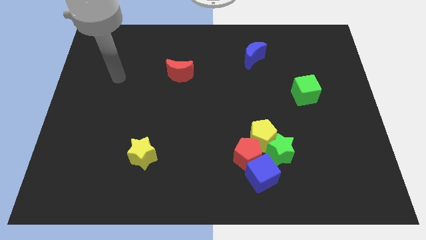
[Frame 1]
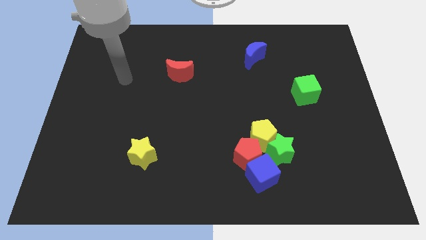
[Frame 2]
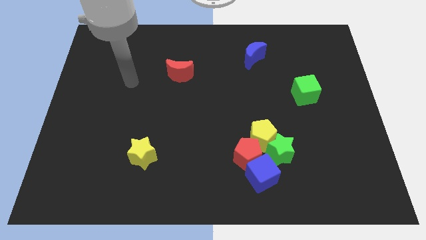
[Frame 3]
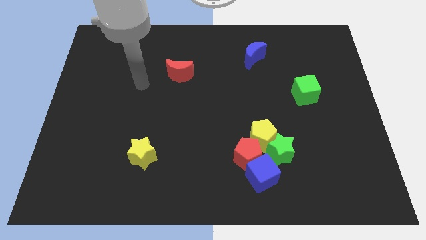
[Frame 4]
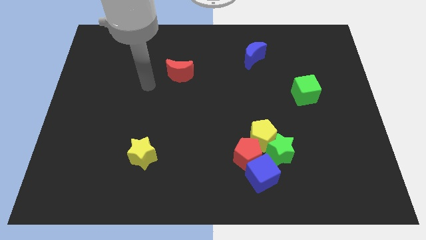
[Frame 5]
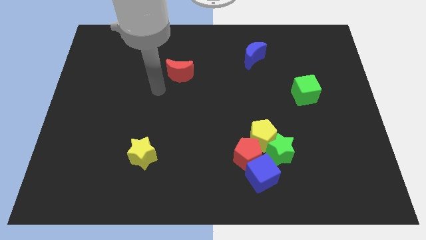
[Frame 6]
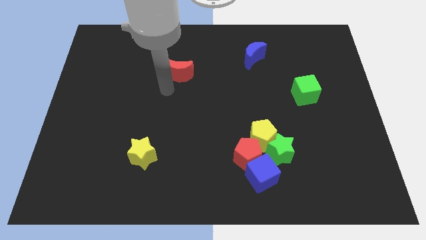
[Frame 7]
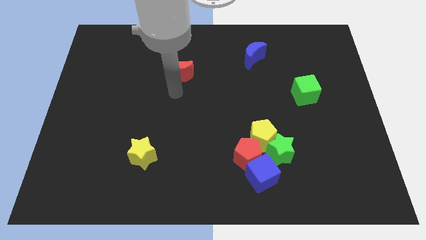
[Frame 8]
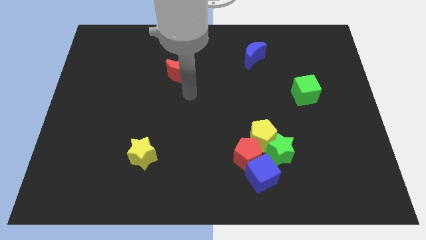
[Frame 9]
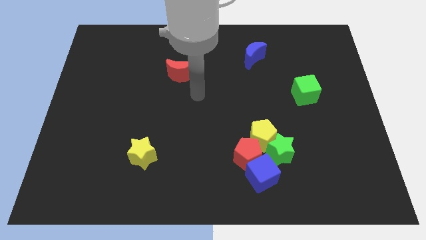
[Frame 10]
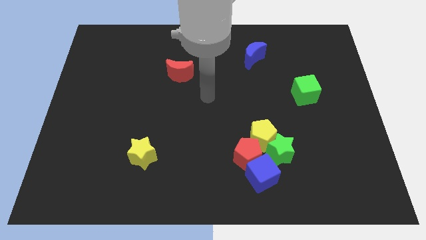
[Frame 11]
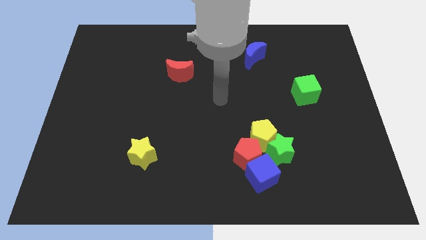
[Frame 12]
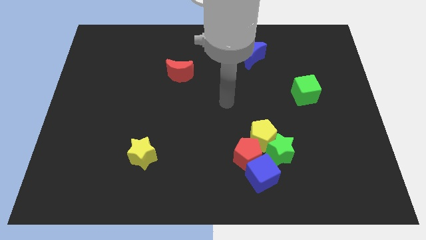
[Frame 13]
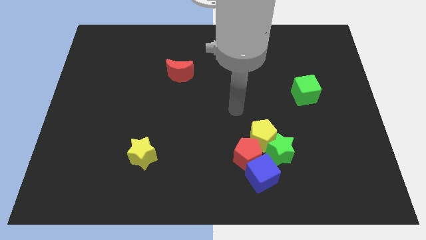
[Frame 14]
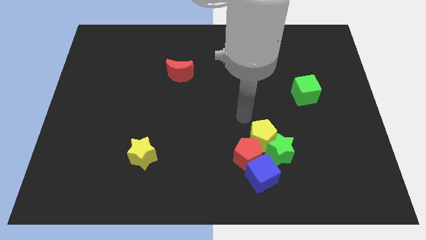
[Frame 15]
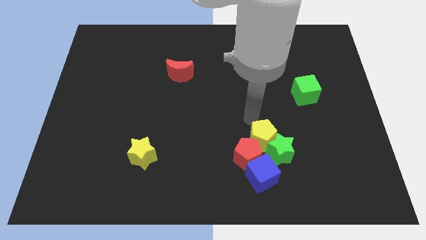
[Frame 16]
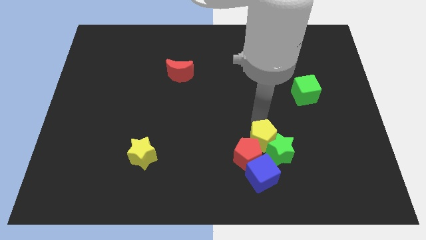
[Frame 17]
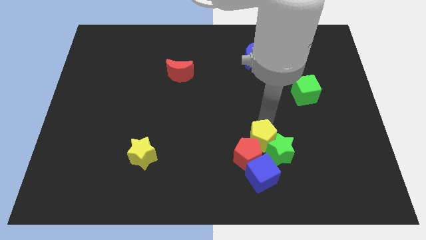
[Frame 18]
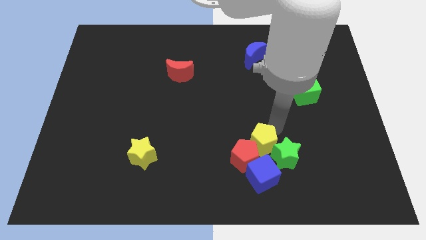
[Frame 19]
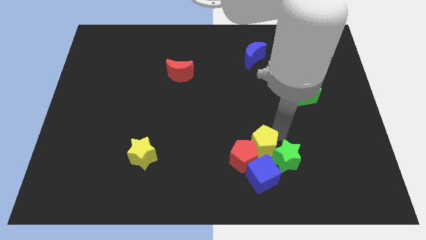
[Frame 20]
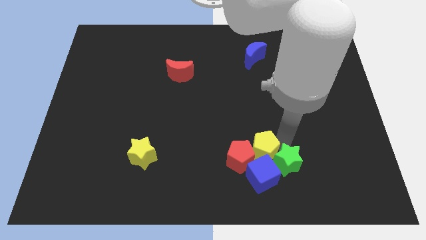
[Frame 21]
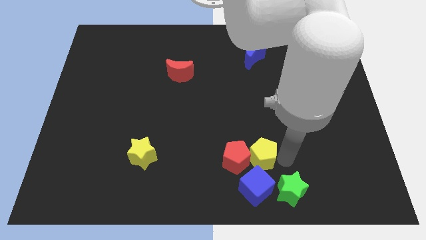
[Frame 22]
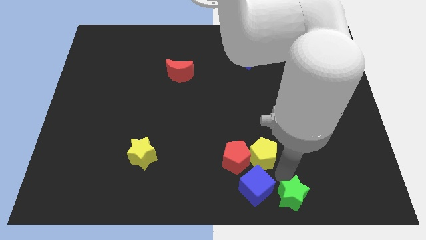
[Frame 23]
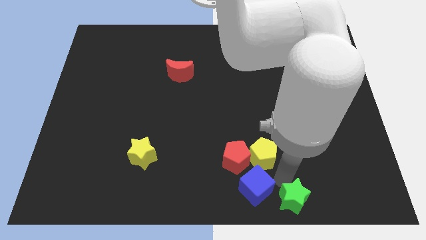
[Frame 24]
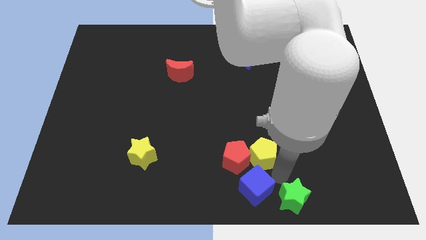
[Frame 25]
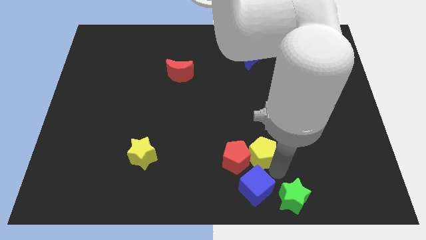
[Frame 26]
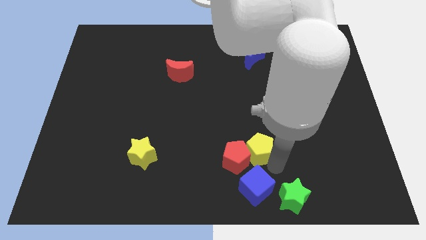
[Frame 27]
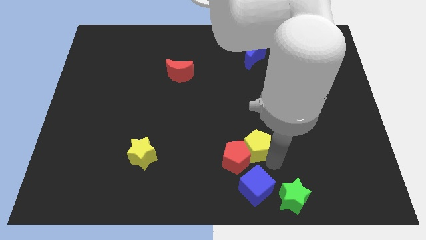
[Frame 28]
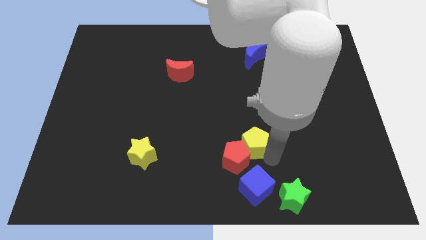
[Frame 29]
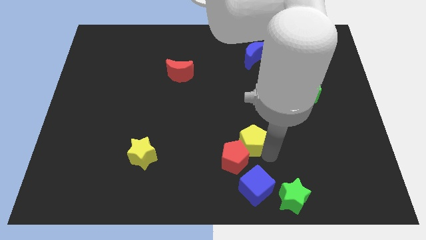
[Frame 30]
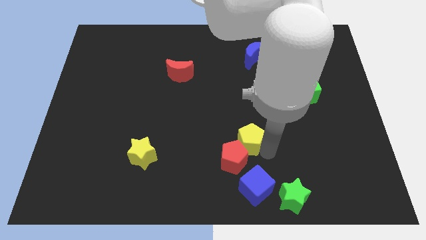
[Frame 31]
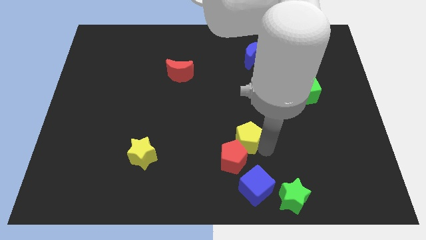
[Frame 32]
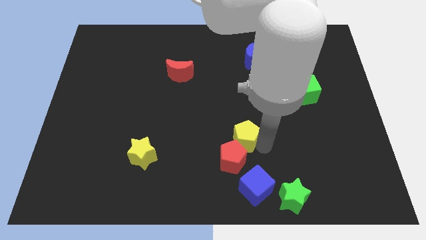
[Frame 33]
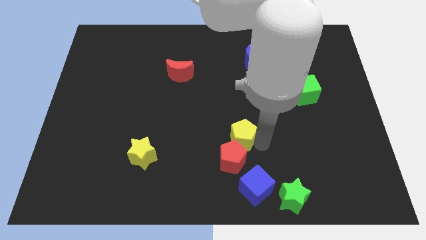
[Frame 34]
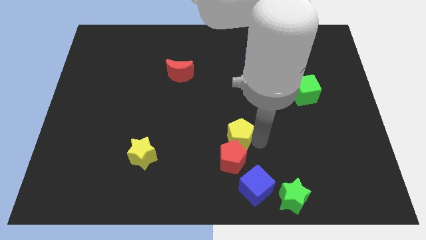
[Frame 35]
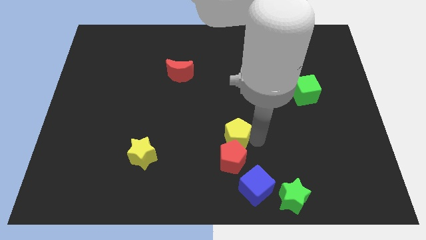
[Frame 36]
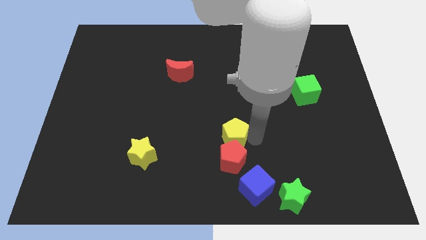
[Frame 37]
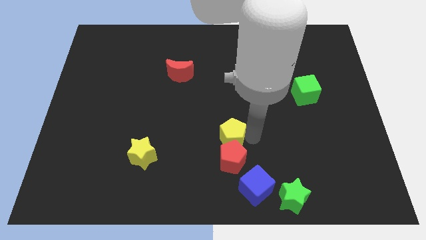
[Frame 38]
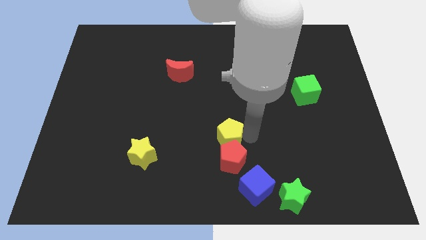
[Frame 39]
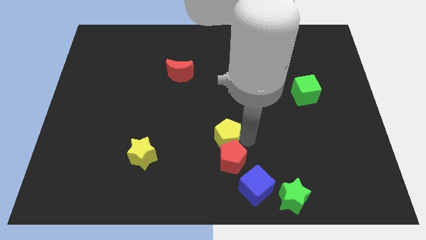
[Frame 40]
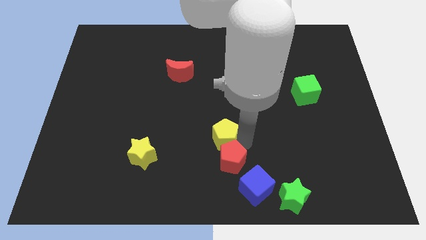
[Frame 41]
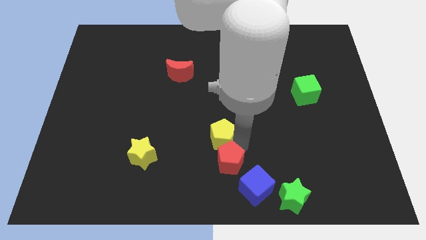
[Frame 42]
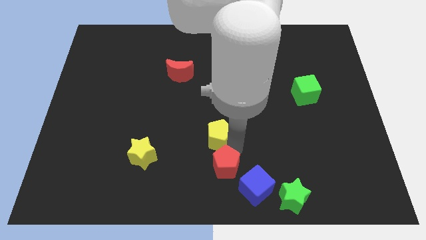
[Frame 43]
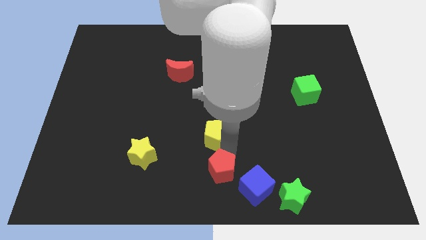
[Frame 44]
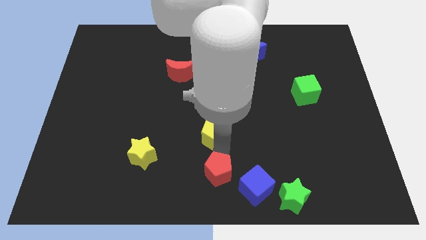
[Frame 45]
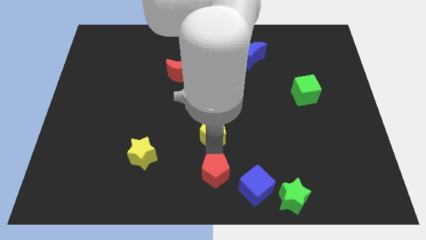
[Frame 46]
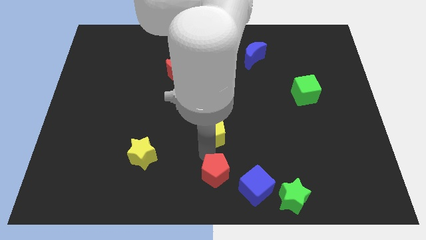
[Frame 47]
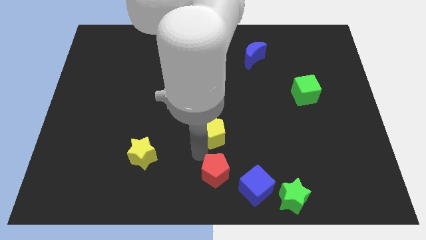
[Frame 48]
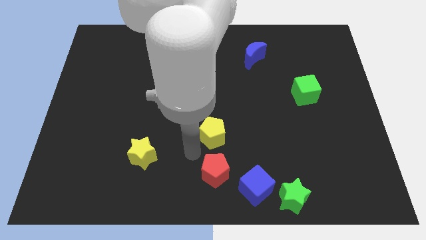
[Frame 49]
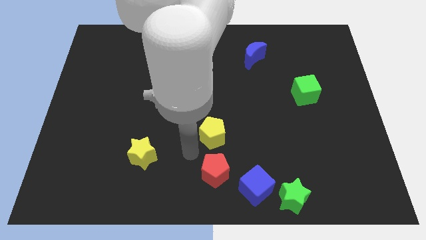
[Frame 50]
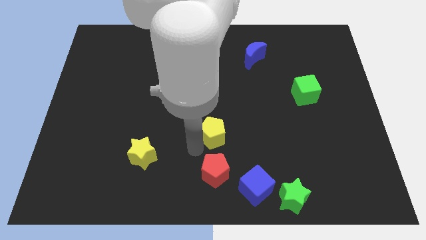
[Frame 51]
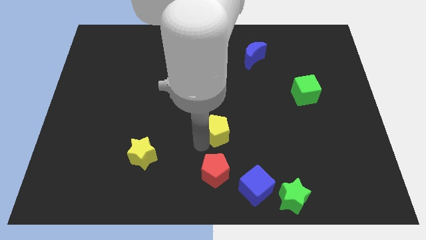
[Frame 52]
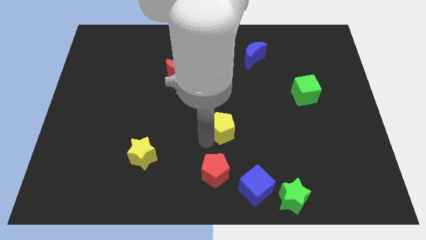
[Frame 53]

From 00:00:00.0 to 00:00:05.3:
slightly push the yellow pentagon diagonally up and to the left

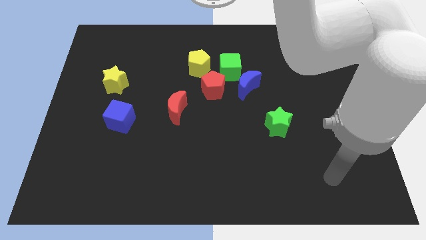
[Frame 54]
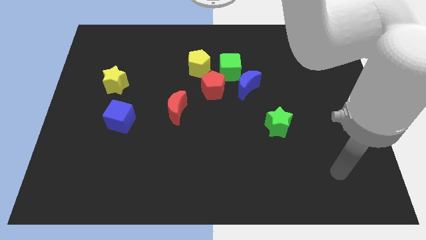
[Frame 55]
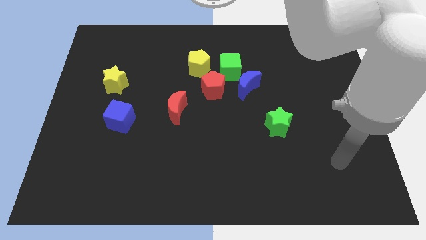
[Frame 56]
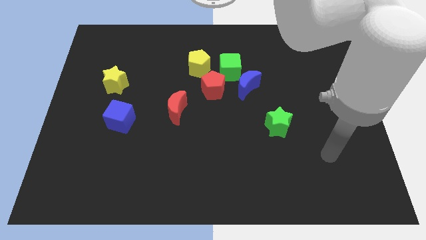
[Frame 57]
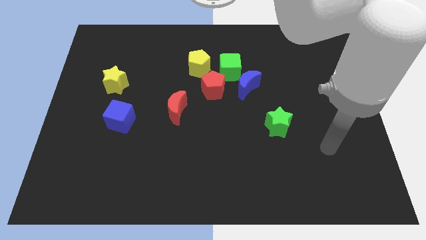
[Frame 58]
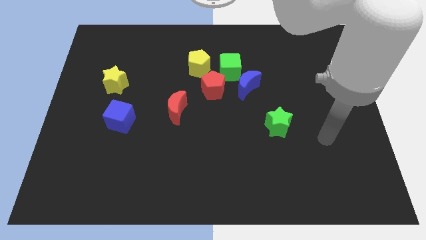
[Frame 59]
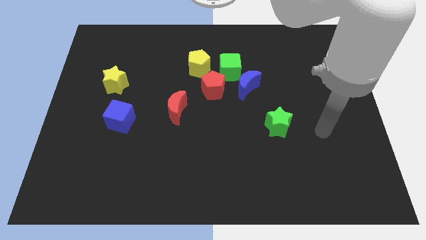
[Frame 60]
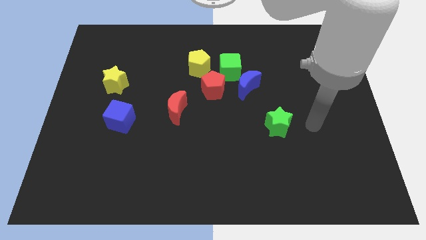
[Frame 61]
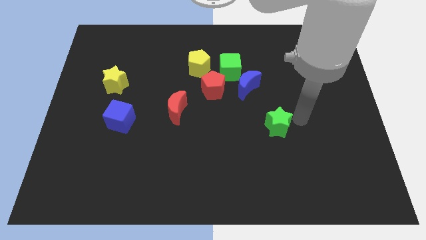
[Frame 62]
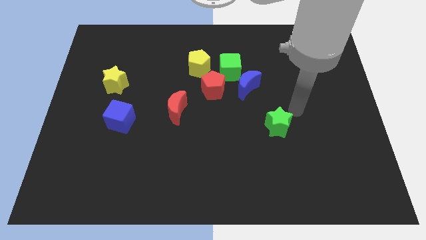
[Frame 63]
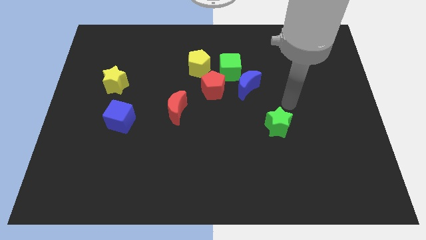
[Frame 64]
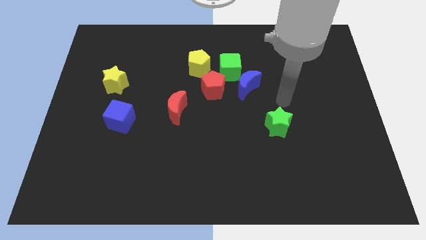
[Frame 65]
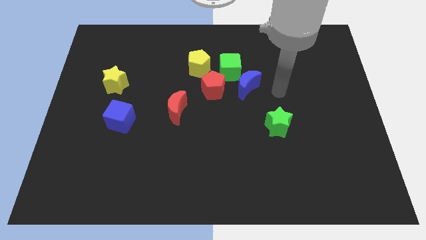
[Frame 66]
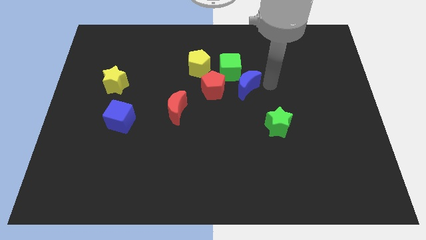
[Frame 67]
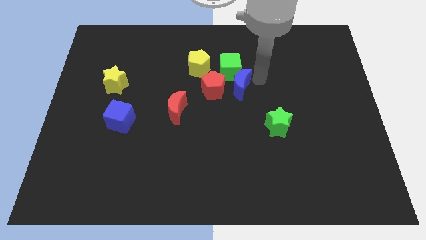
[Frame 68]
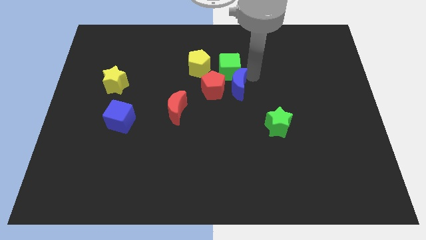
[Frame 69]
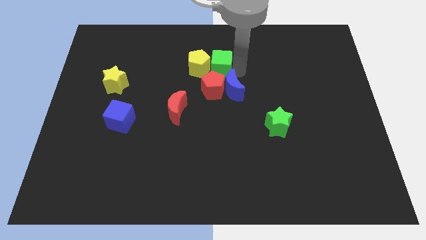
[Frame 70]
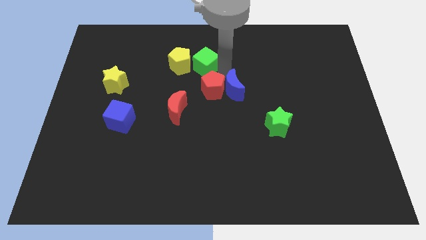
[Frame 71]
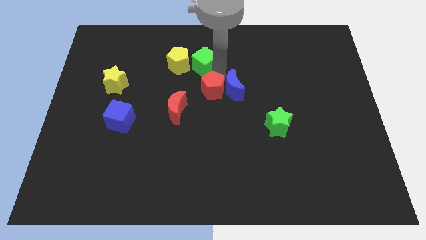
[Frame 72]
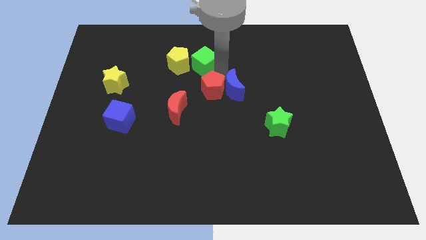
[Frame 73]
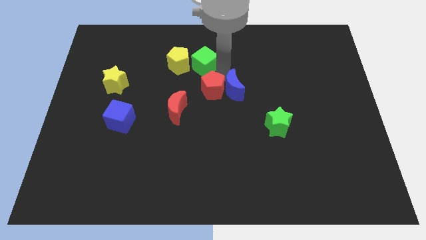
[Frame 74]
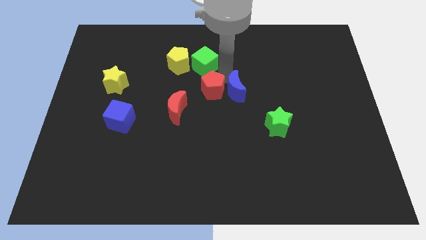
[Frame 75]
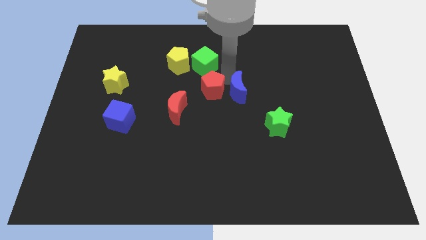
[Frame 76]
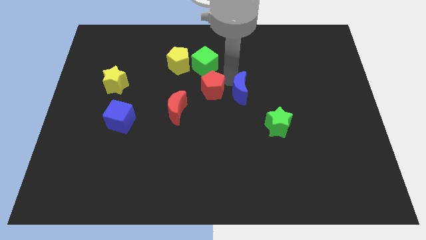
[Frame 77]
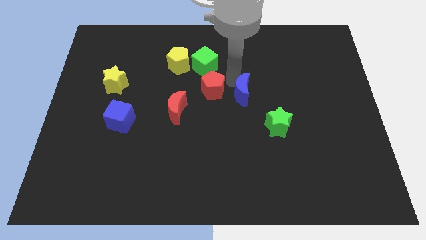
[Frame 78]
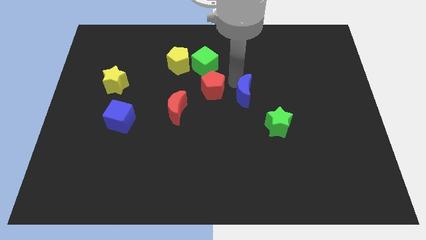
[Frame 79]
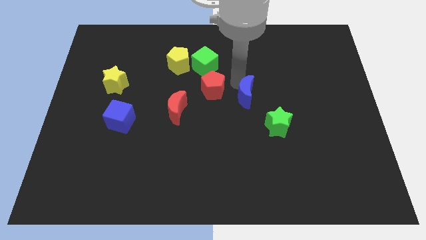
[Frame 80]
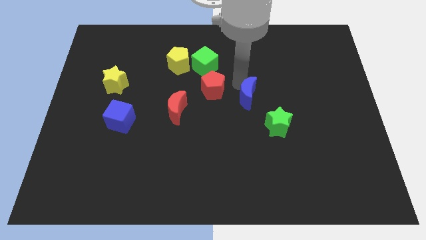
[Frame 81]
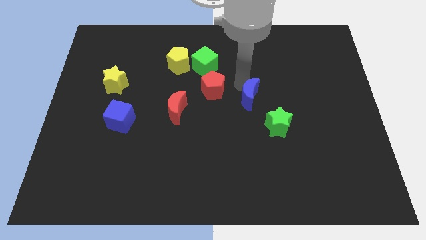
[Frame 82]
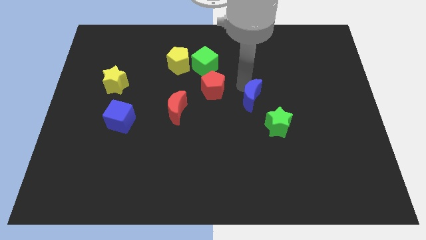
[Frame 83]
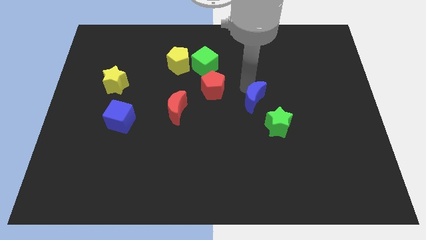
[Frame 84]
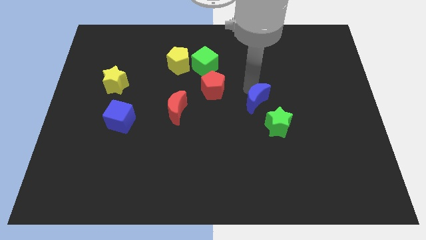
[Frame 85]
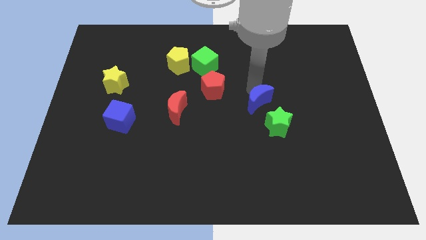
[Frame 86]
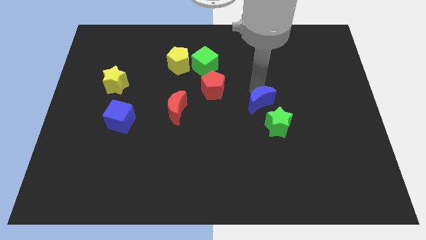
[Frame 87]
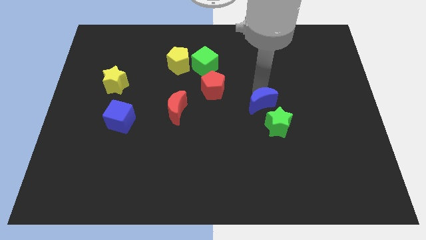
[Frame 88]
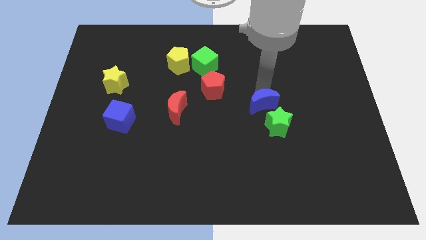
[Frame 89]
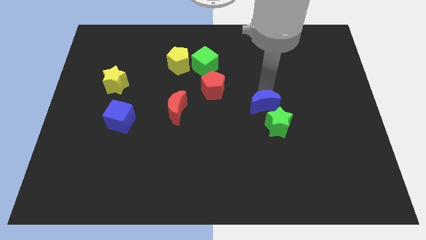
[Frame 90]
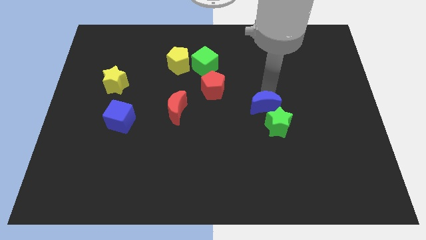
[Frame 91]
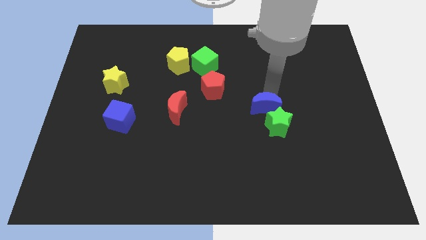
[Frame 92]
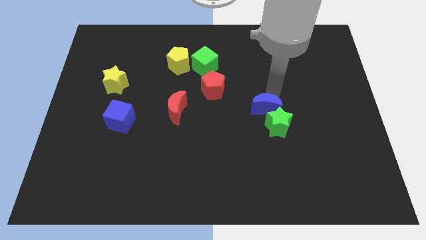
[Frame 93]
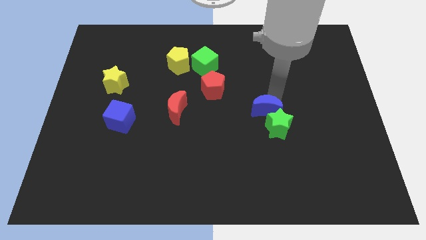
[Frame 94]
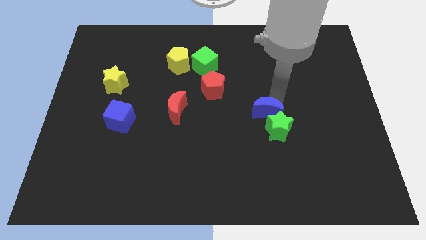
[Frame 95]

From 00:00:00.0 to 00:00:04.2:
slide the blue moon down somewhat
